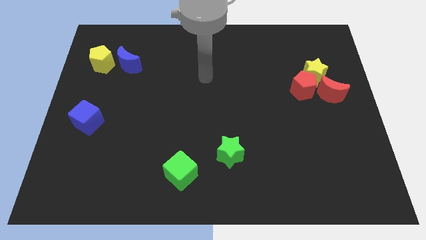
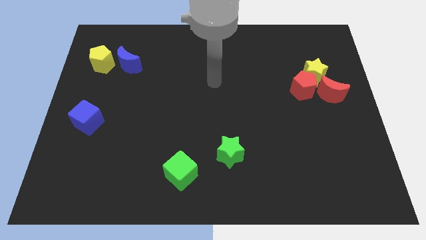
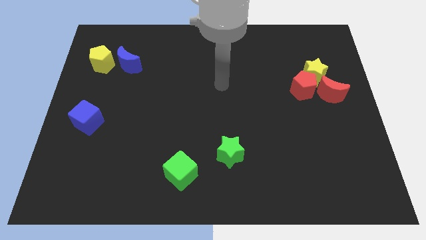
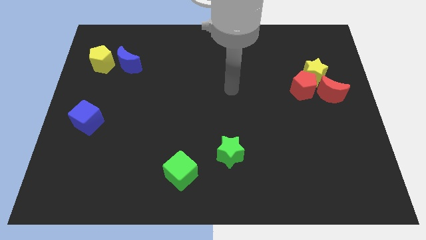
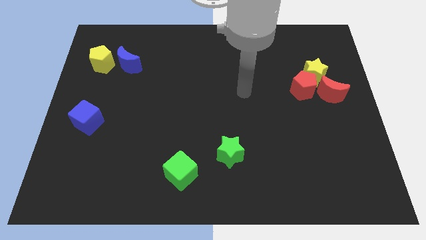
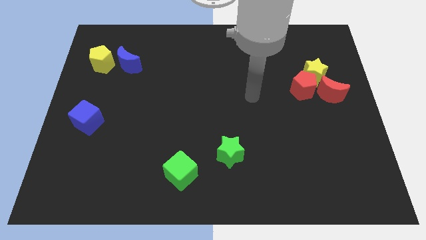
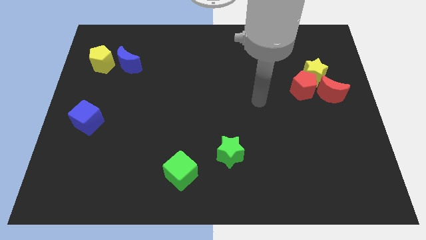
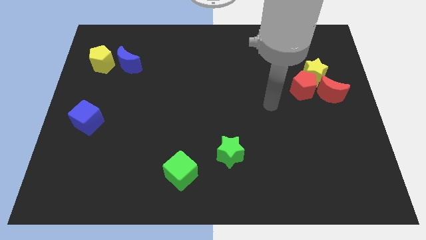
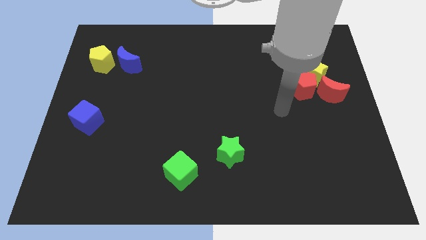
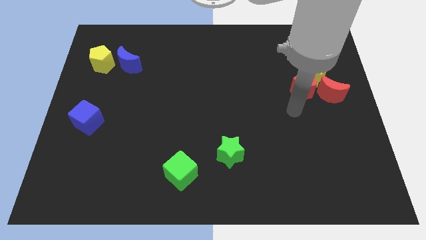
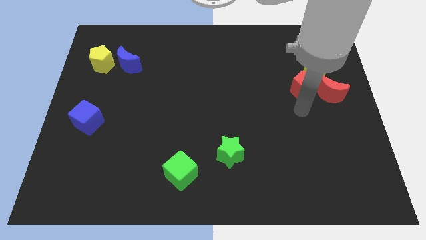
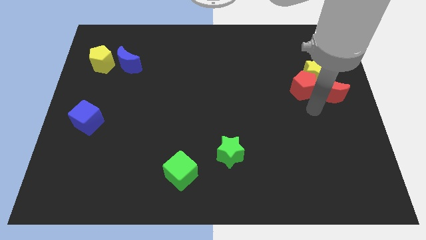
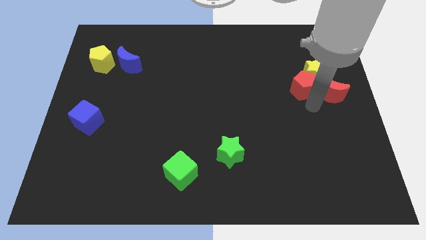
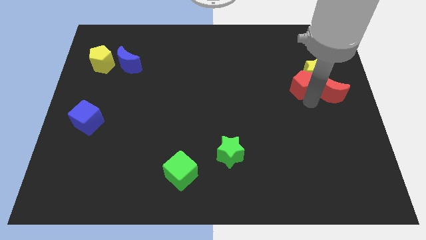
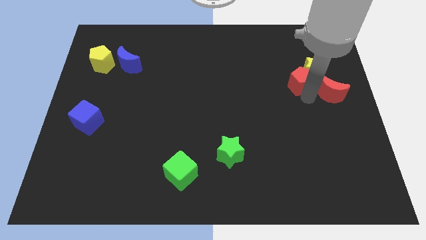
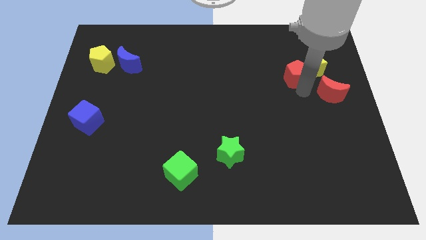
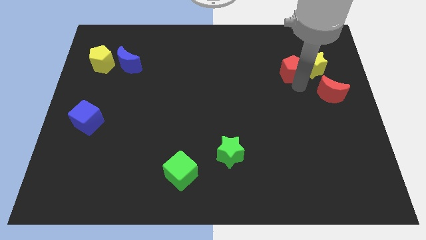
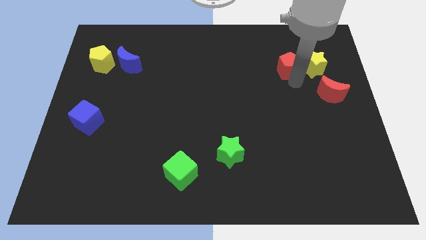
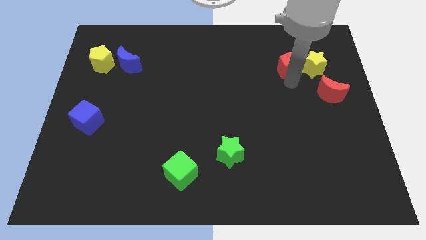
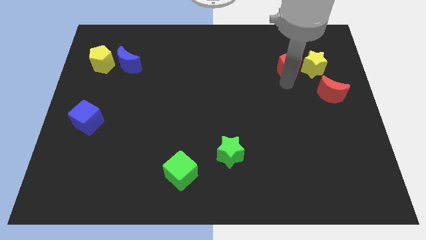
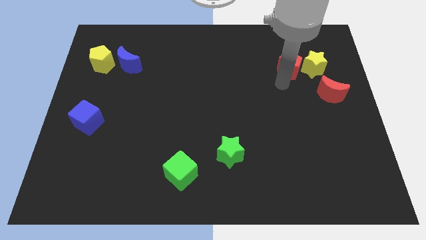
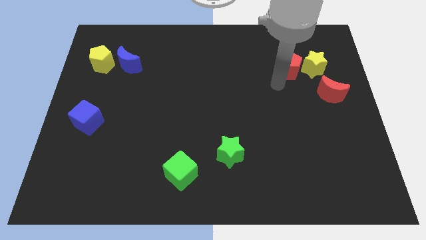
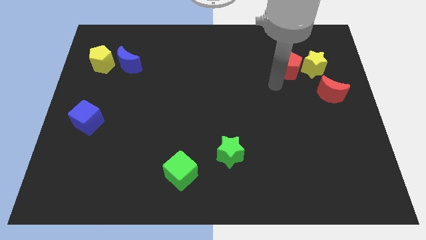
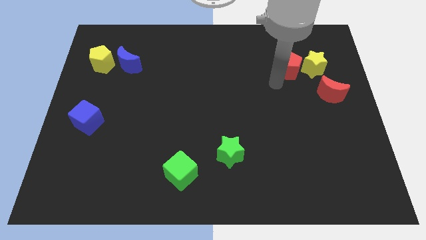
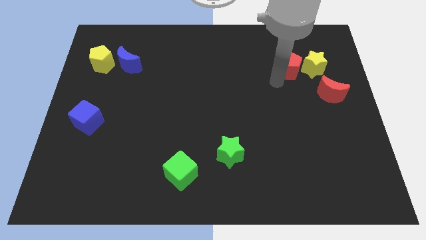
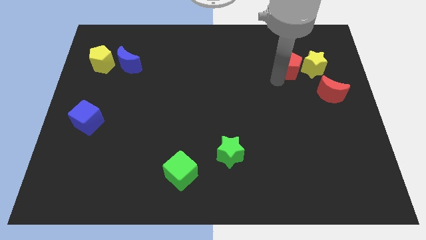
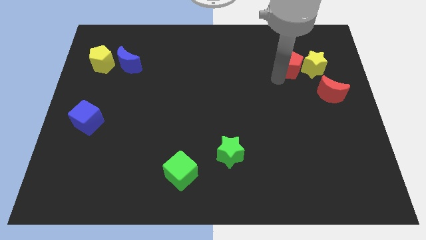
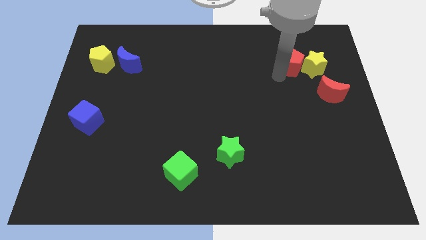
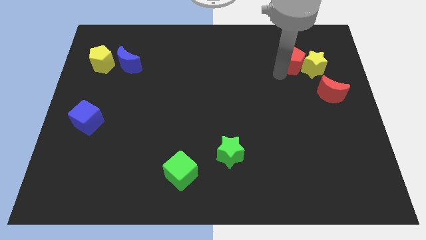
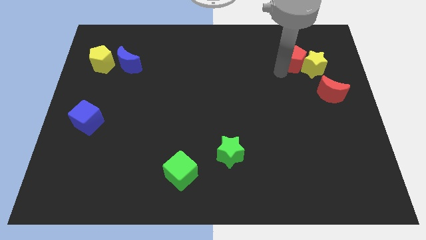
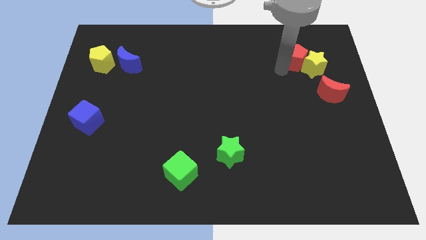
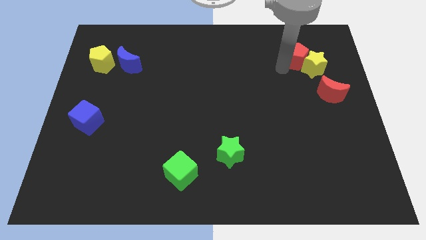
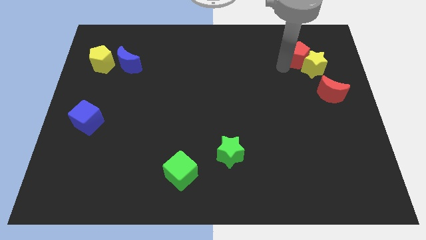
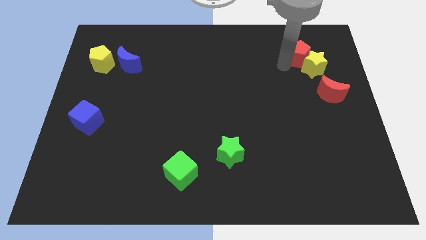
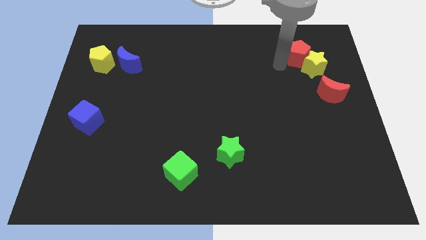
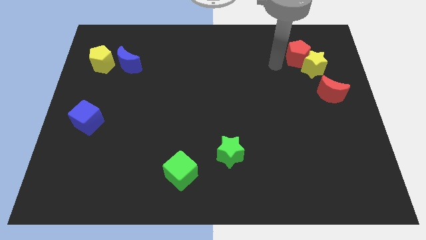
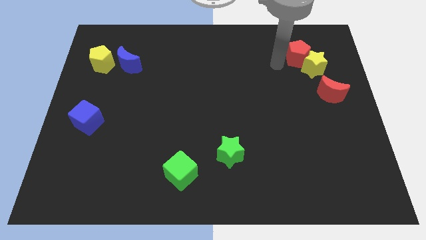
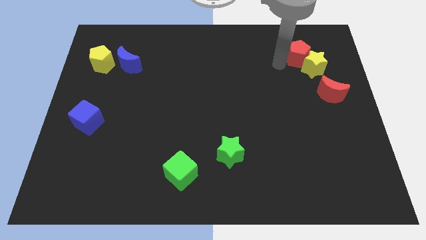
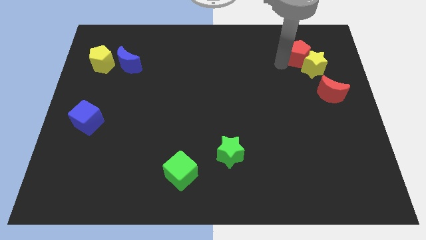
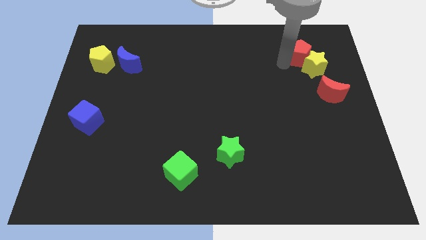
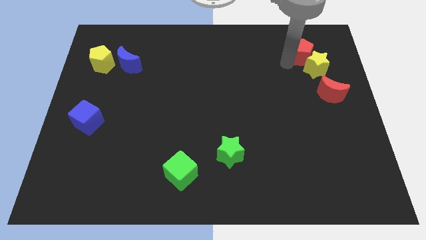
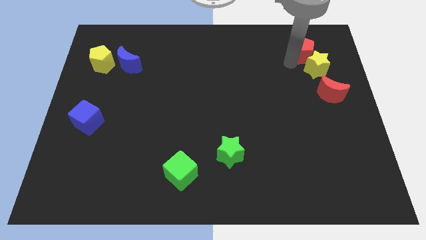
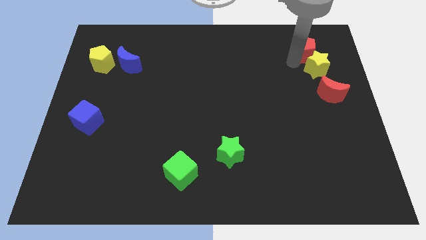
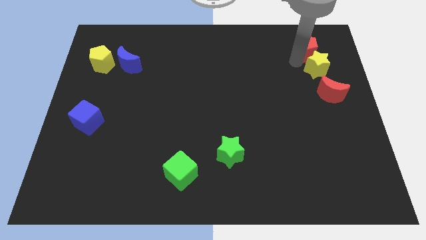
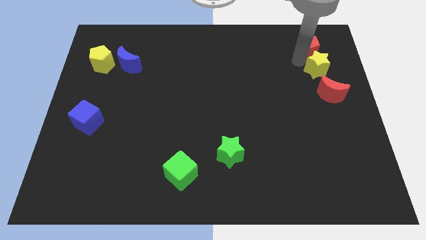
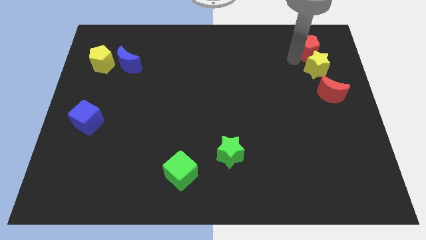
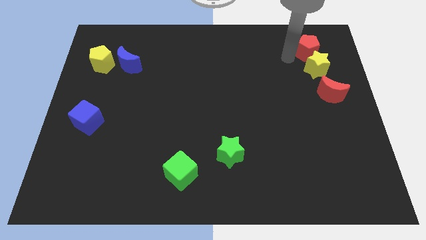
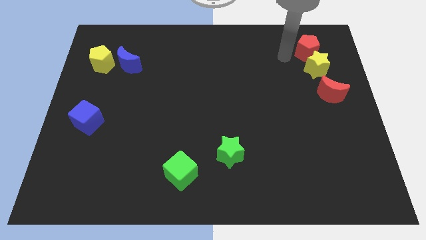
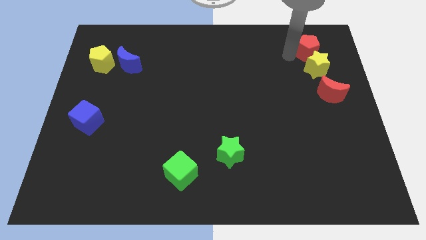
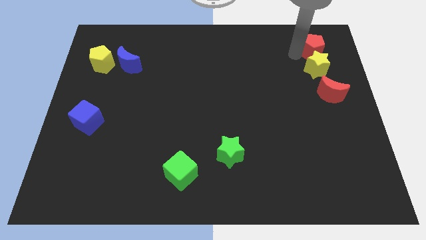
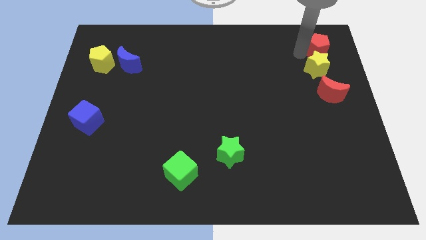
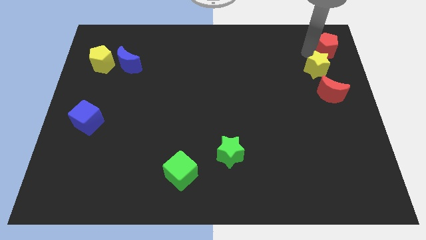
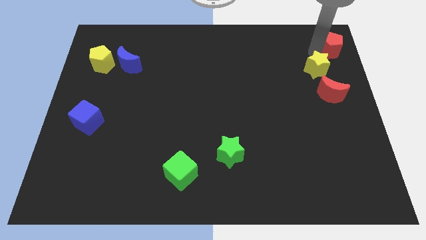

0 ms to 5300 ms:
slide the red pentagon to the top right corner

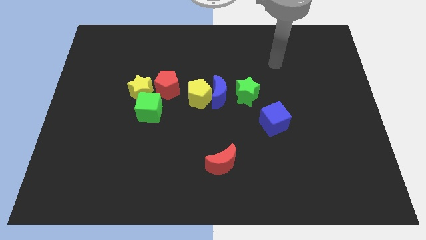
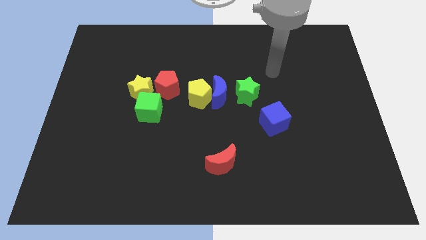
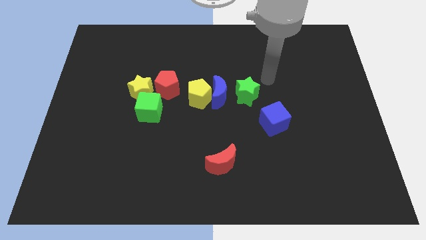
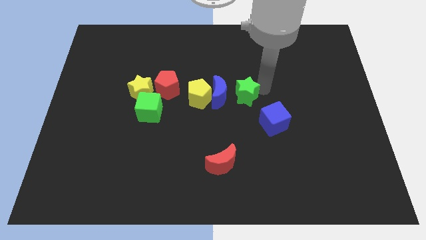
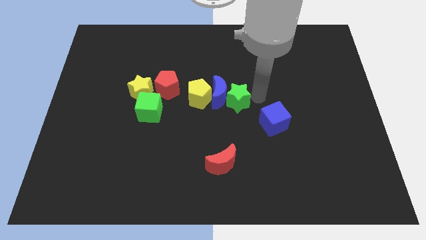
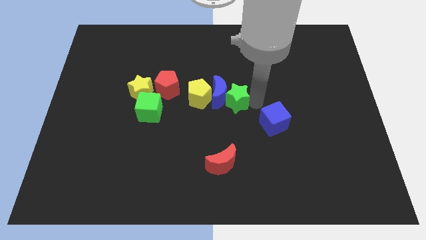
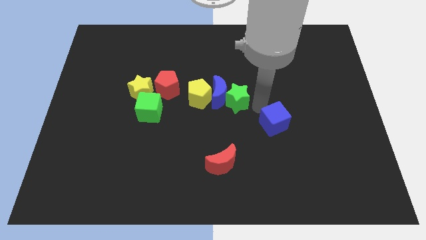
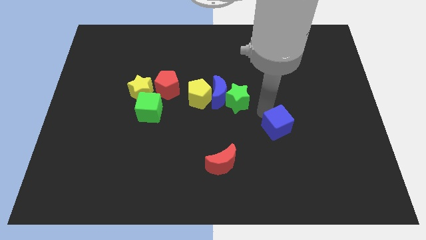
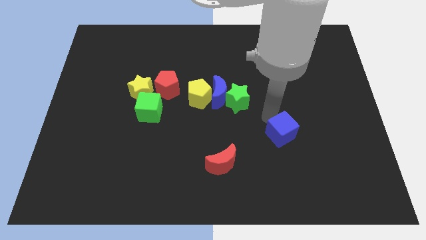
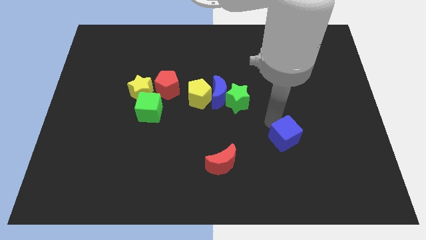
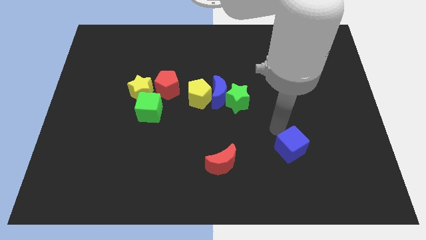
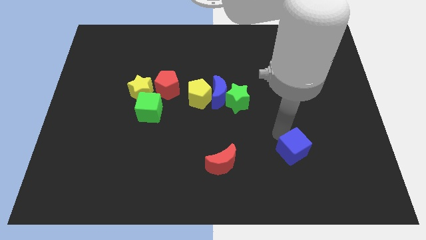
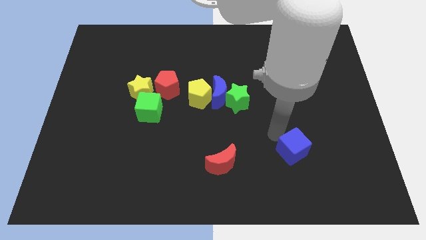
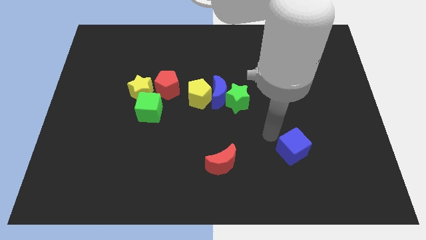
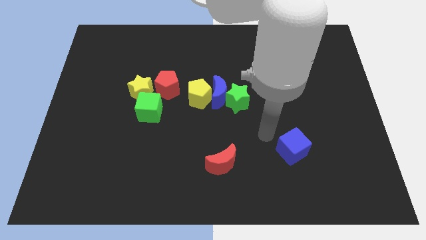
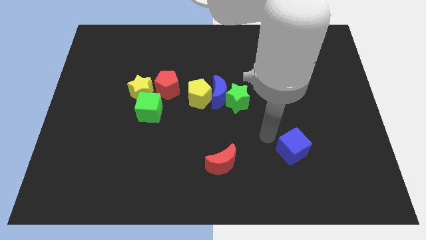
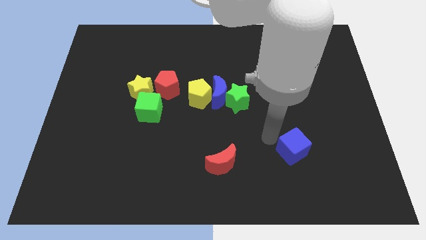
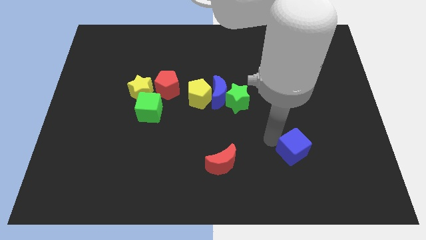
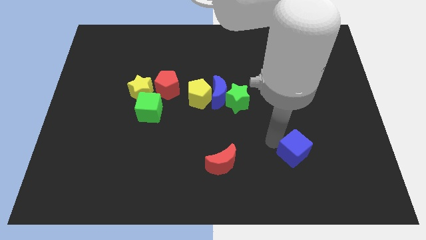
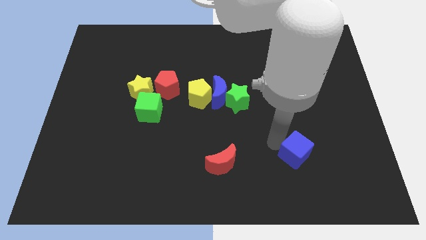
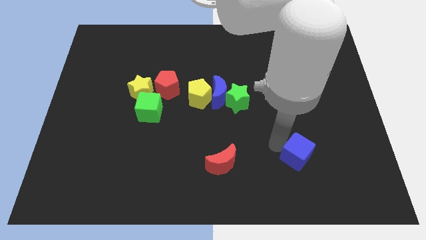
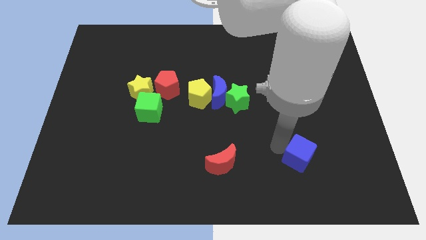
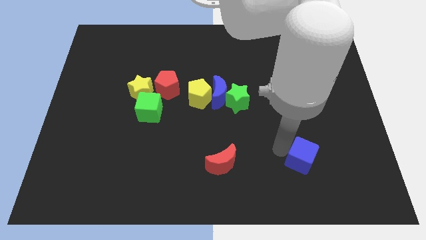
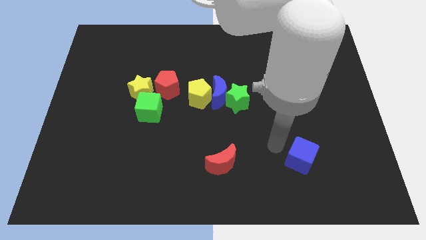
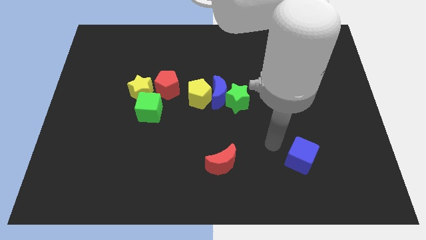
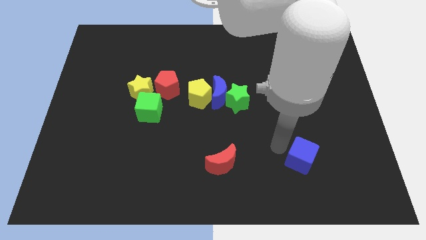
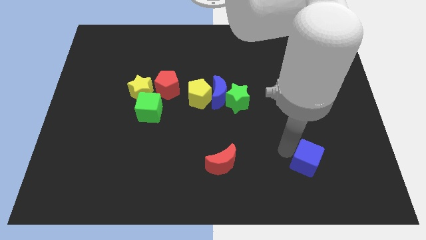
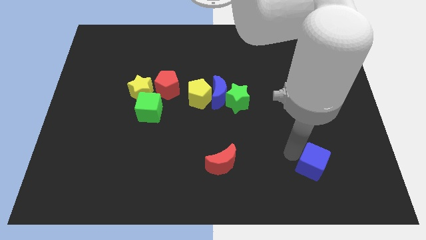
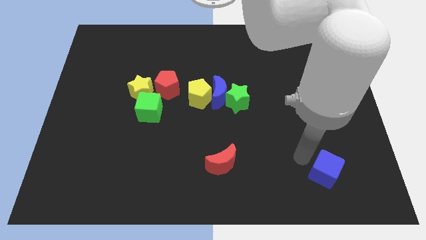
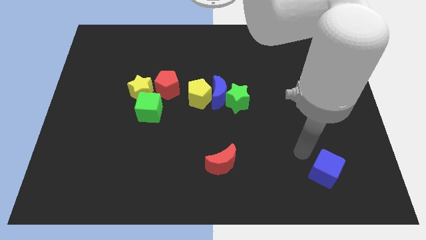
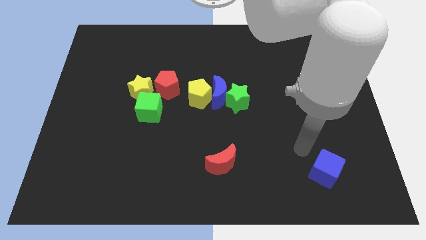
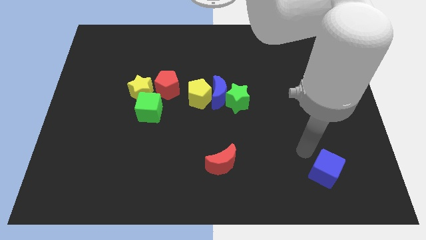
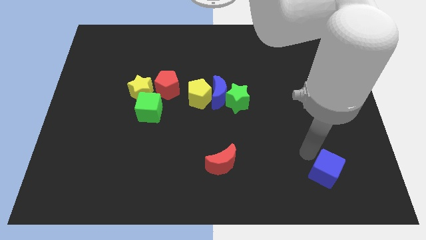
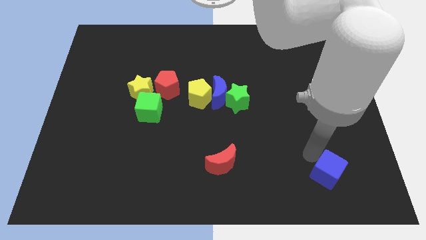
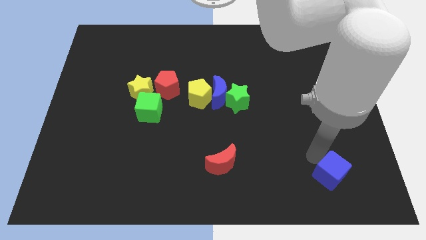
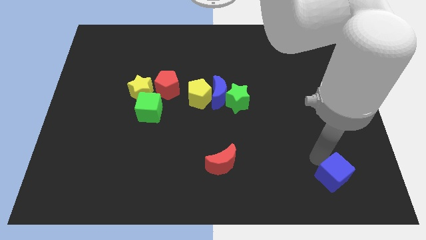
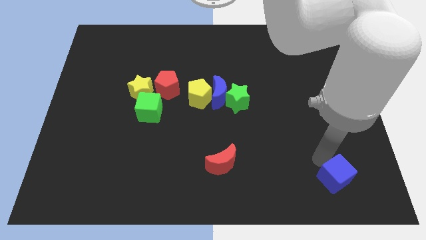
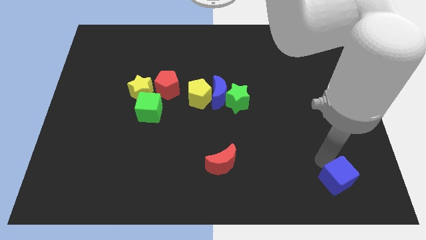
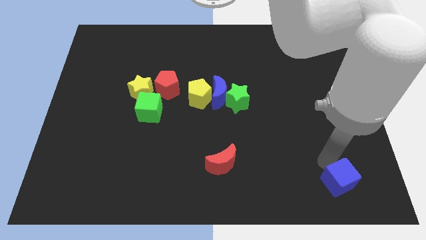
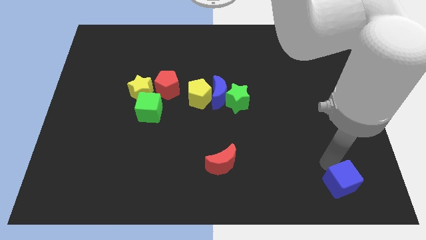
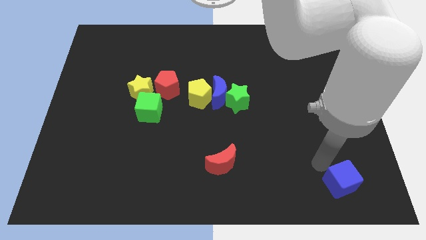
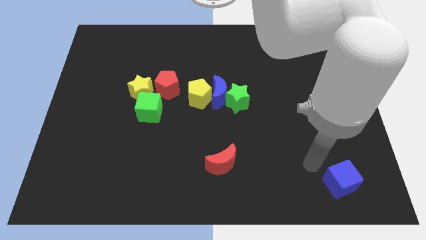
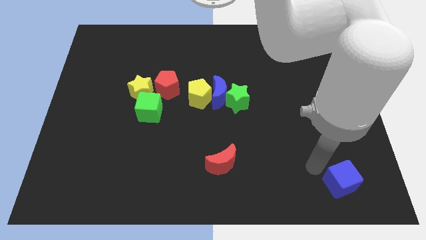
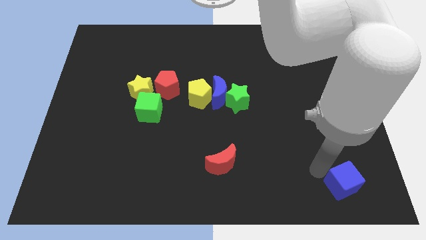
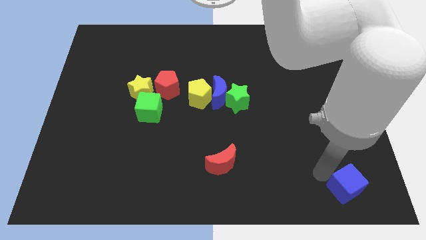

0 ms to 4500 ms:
push the blue cube to the bottom right
